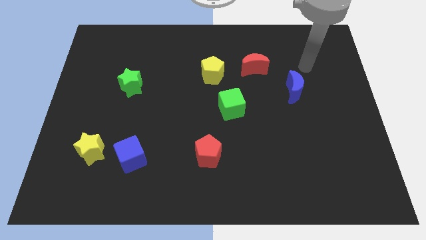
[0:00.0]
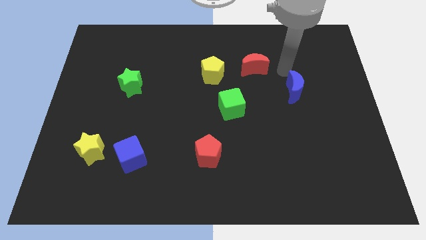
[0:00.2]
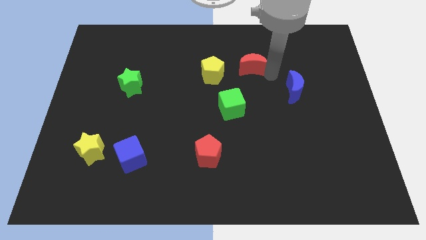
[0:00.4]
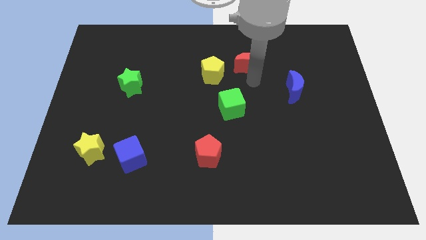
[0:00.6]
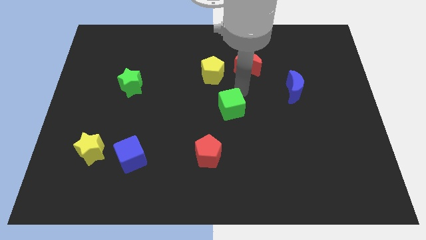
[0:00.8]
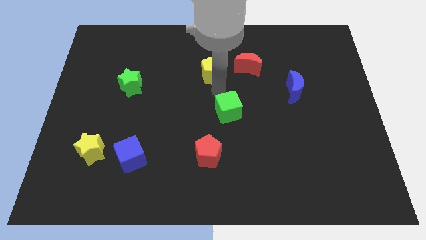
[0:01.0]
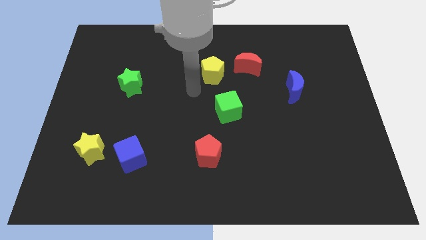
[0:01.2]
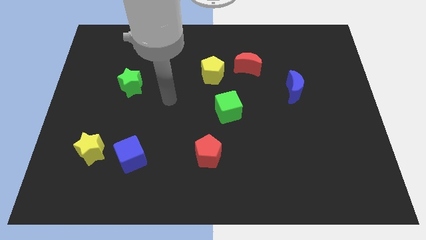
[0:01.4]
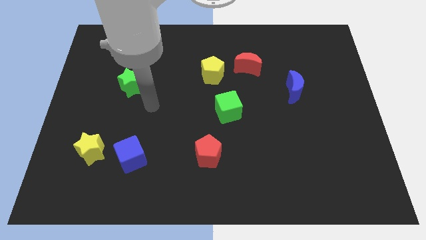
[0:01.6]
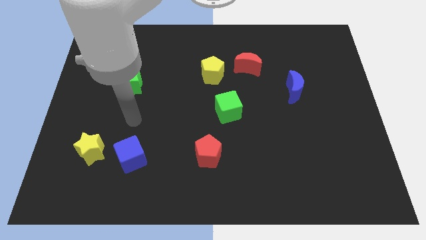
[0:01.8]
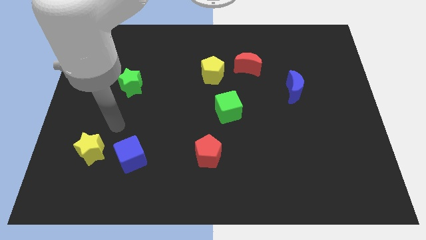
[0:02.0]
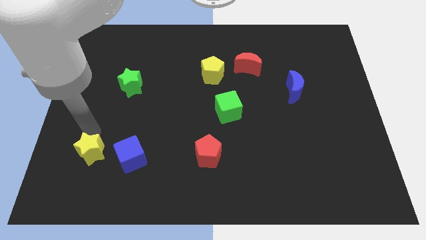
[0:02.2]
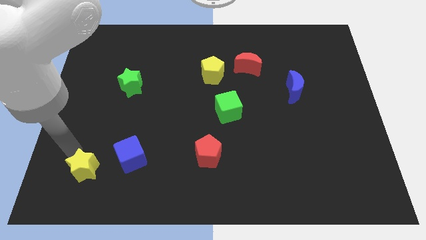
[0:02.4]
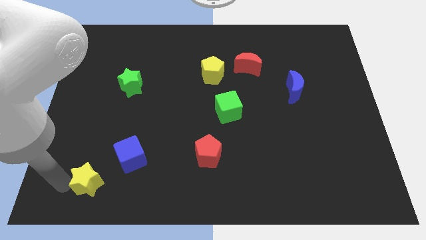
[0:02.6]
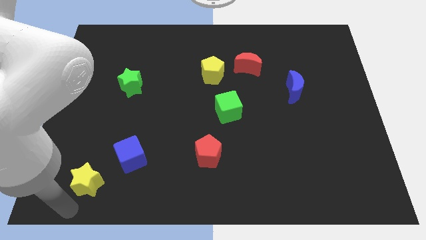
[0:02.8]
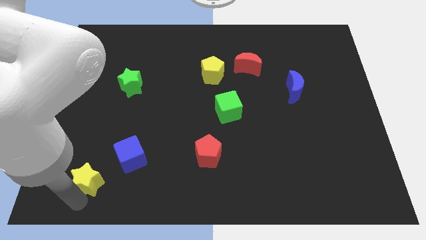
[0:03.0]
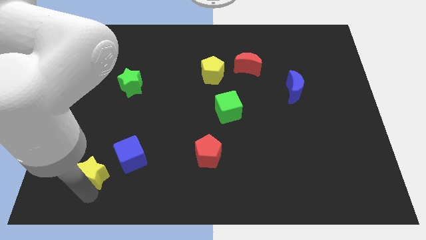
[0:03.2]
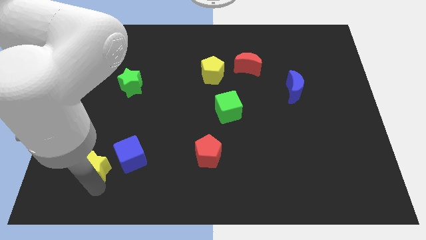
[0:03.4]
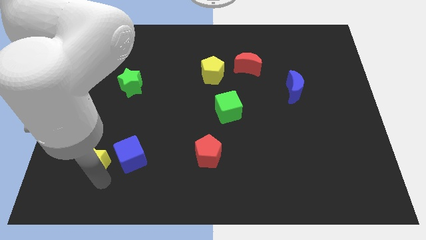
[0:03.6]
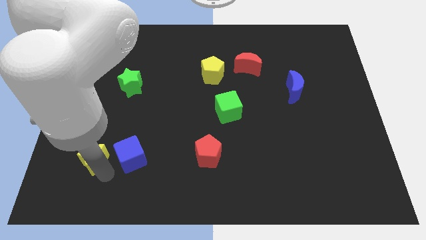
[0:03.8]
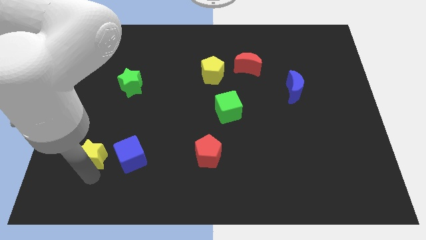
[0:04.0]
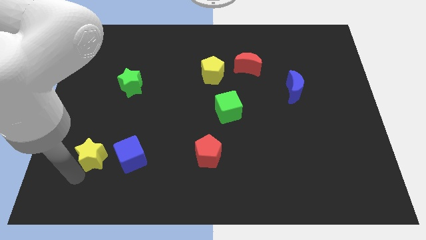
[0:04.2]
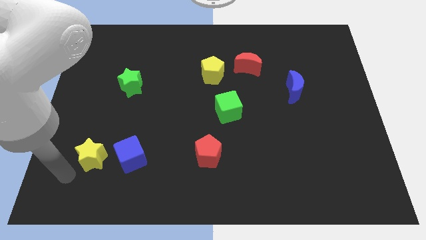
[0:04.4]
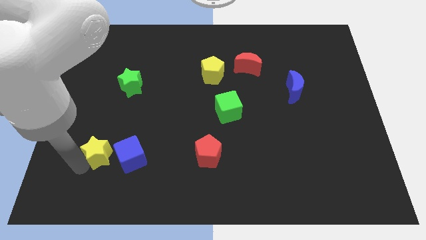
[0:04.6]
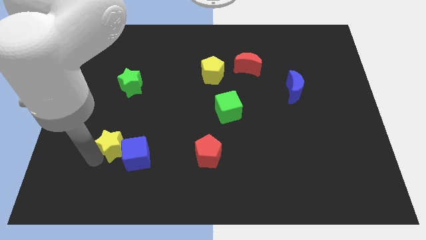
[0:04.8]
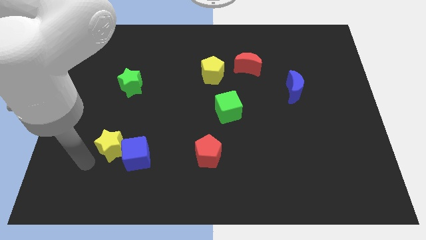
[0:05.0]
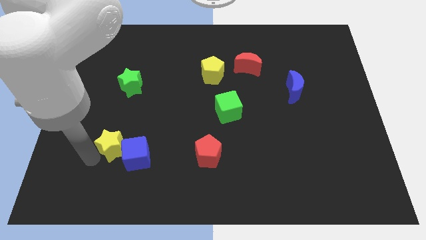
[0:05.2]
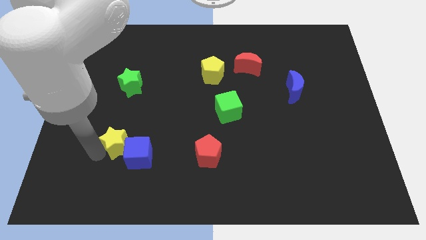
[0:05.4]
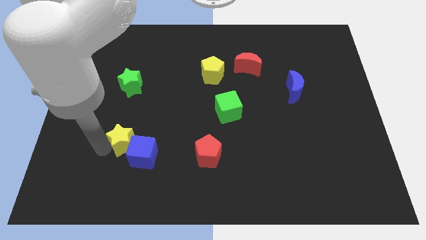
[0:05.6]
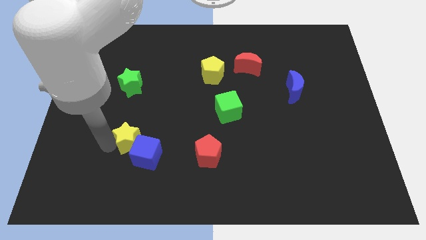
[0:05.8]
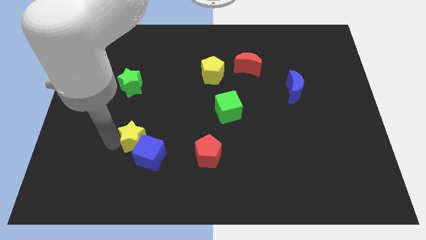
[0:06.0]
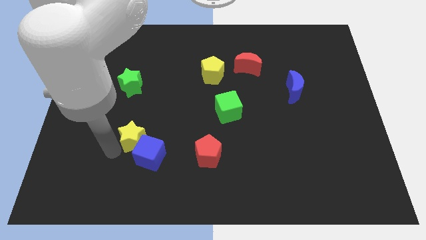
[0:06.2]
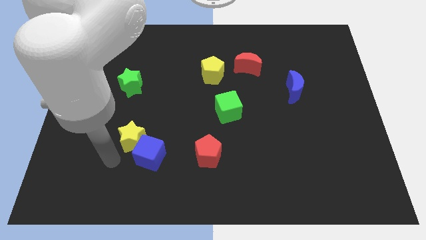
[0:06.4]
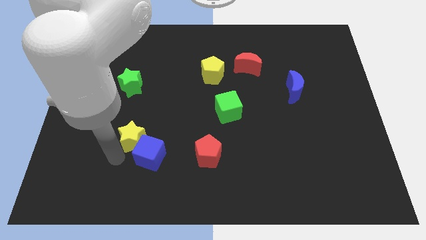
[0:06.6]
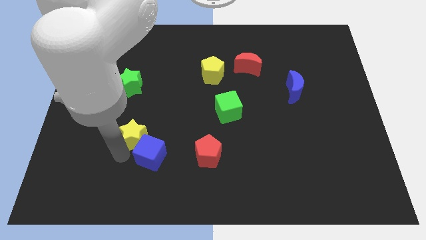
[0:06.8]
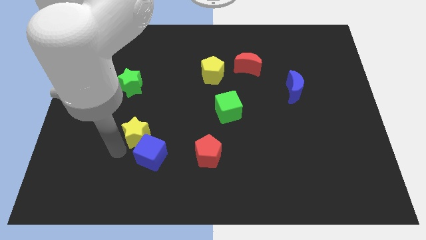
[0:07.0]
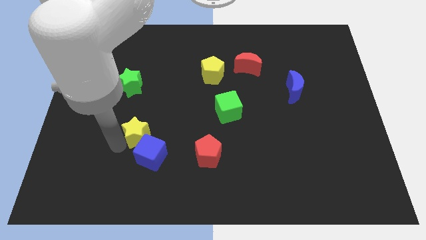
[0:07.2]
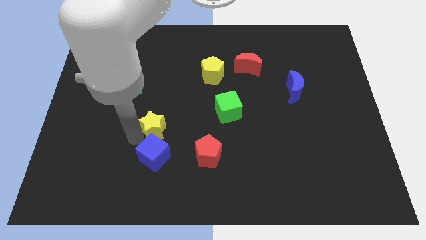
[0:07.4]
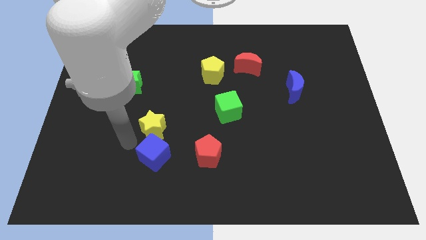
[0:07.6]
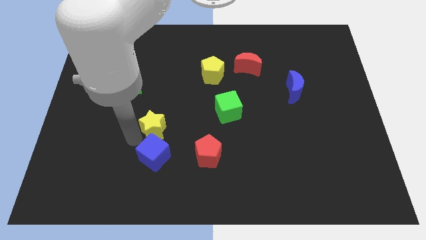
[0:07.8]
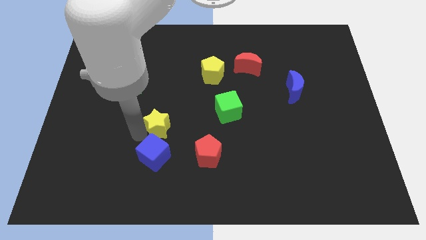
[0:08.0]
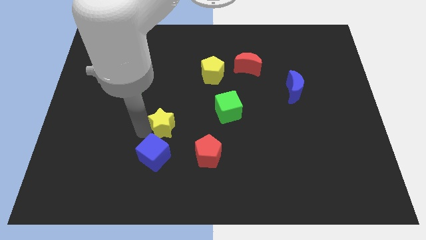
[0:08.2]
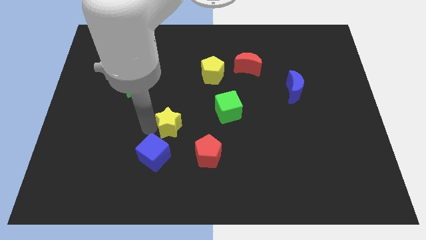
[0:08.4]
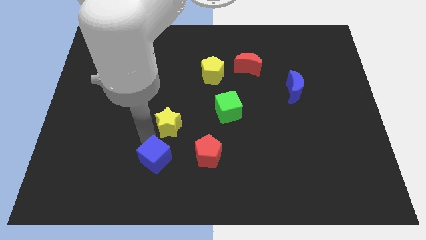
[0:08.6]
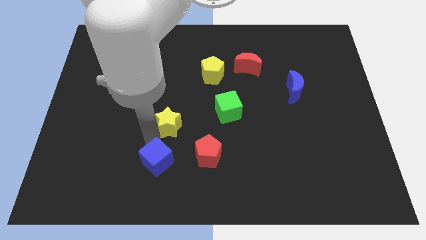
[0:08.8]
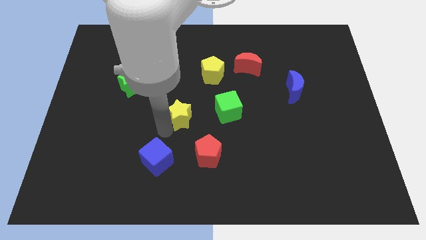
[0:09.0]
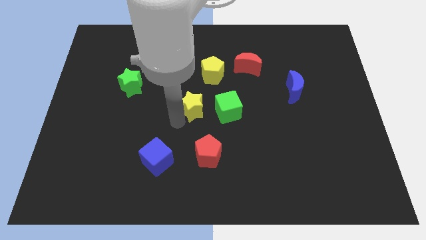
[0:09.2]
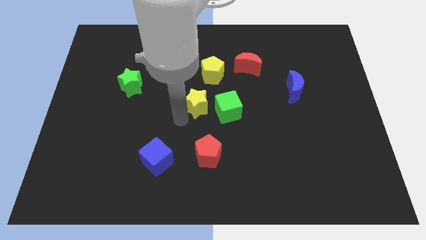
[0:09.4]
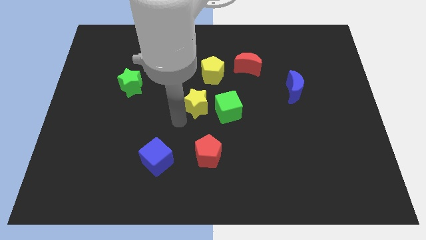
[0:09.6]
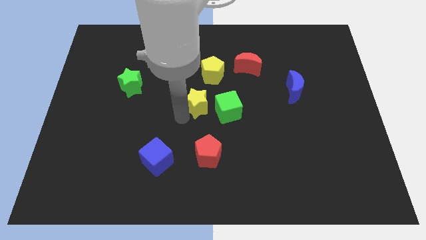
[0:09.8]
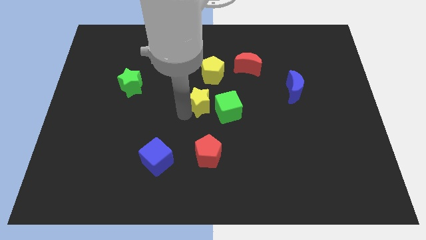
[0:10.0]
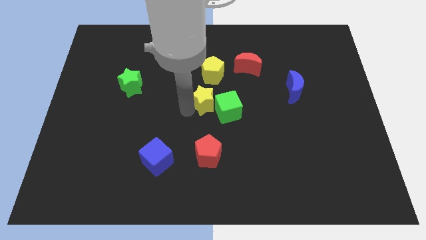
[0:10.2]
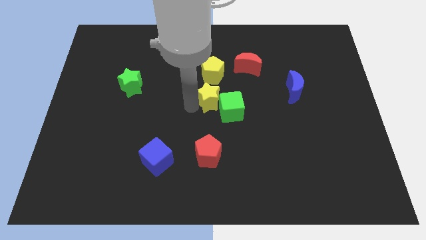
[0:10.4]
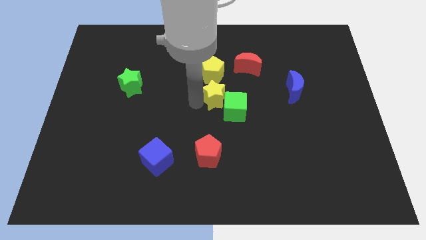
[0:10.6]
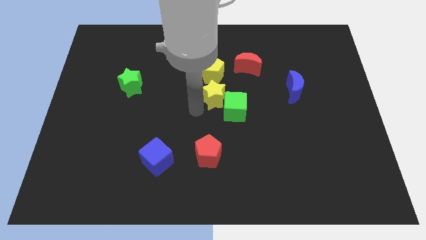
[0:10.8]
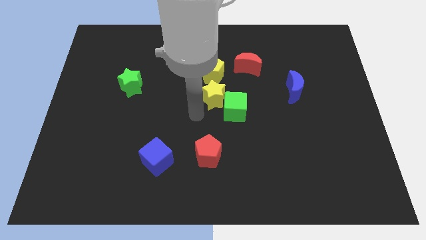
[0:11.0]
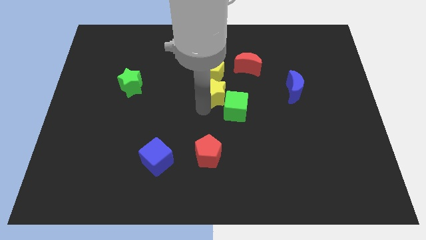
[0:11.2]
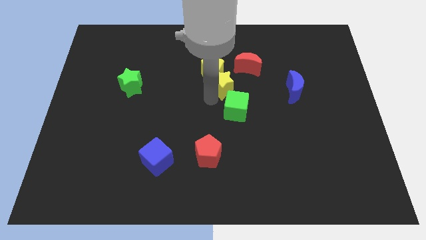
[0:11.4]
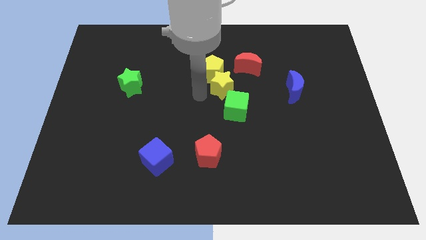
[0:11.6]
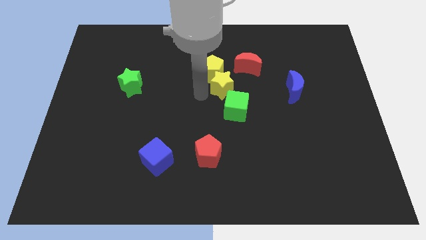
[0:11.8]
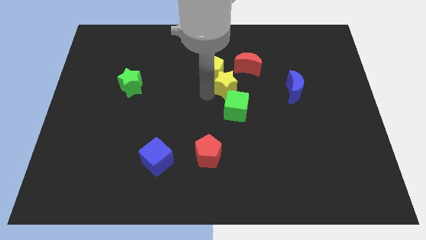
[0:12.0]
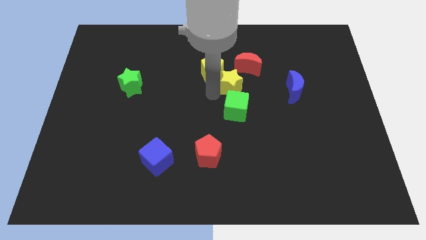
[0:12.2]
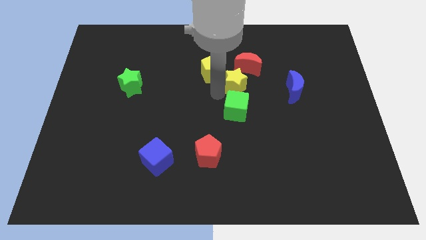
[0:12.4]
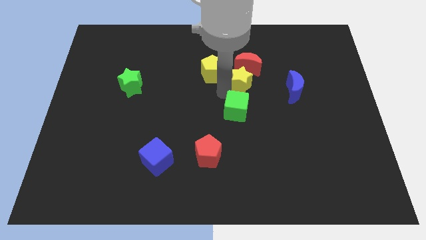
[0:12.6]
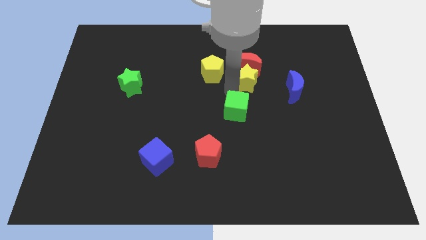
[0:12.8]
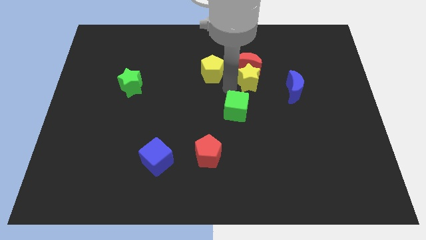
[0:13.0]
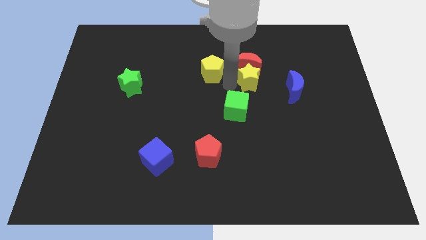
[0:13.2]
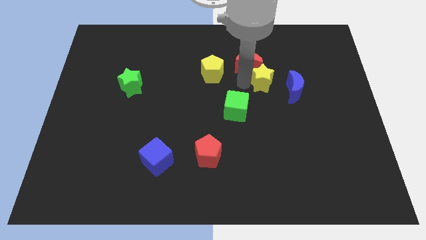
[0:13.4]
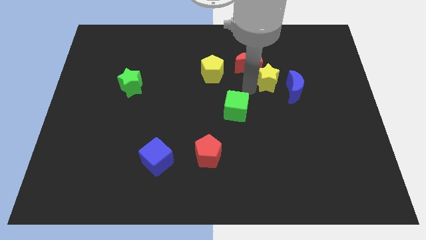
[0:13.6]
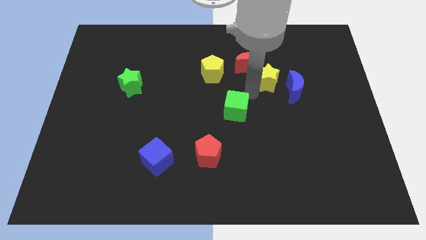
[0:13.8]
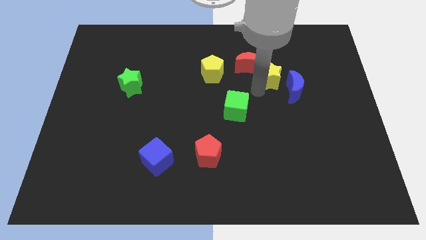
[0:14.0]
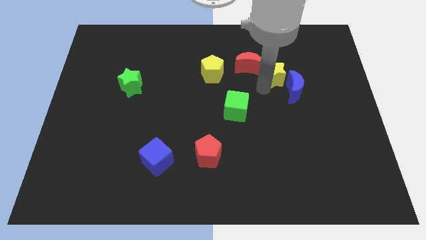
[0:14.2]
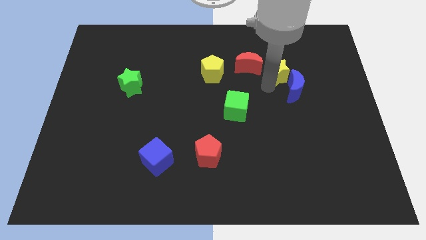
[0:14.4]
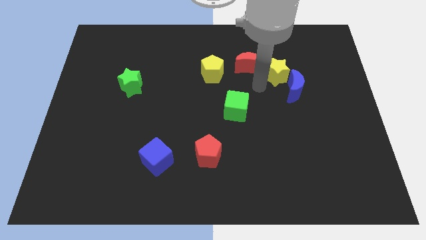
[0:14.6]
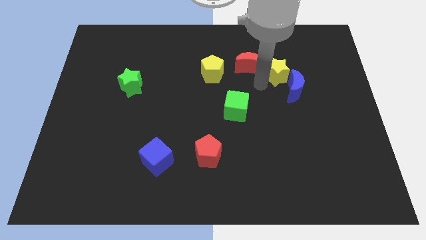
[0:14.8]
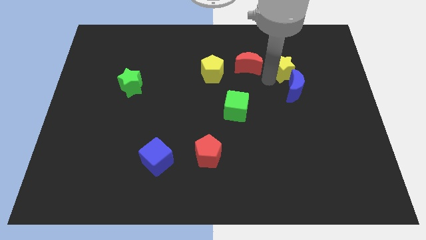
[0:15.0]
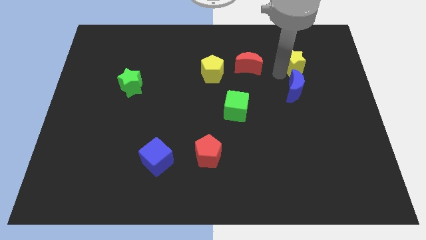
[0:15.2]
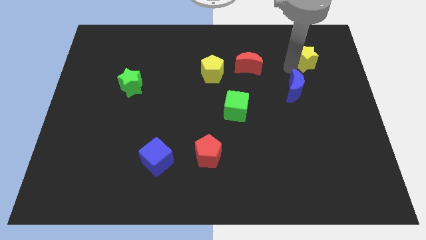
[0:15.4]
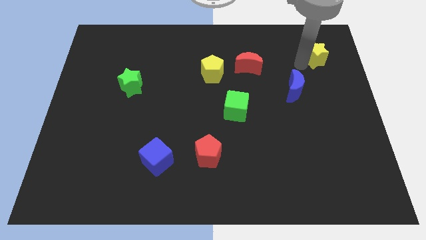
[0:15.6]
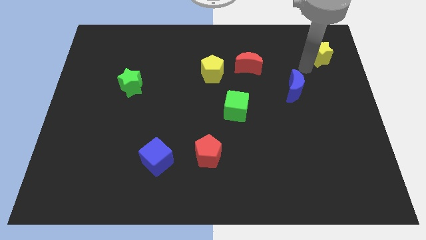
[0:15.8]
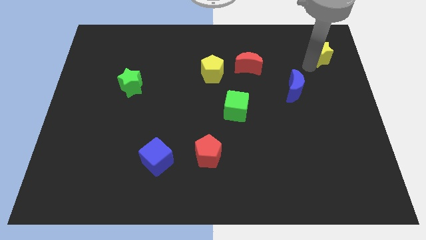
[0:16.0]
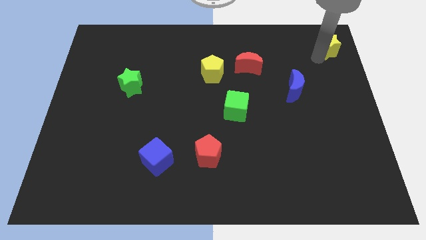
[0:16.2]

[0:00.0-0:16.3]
put the yellow star to the upper right corner
